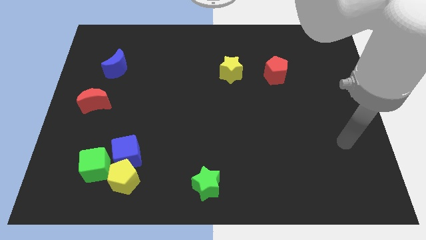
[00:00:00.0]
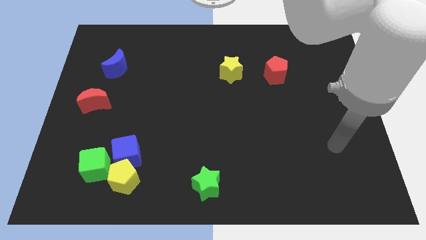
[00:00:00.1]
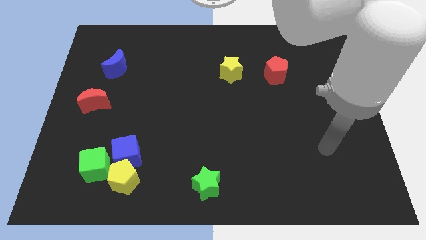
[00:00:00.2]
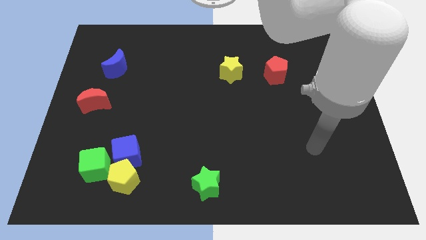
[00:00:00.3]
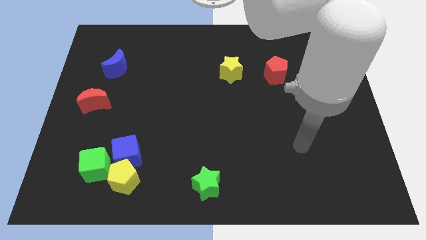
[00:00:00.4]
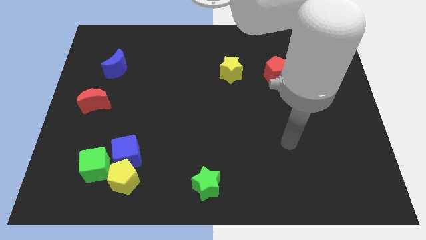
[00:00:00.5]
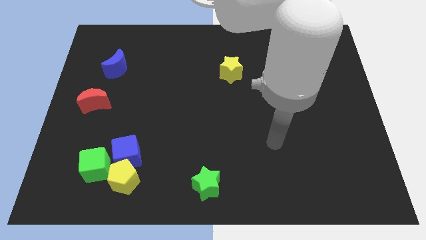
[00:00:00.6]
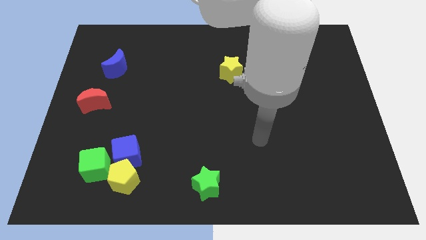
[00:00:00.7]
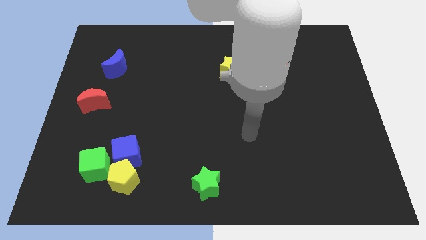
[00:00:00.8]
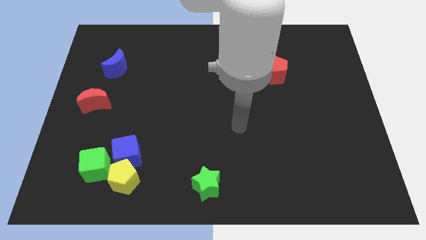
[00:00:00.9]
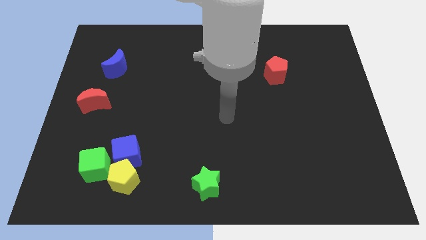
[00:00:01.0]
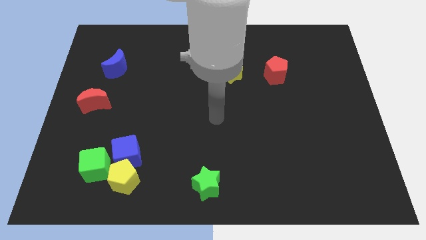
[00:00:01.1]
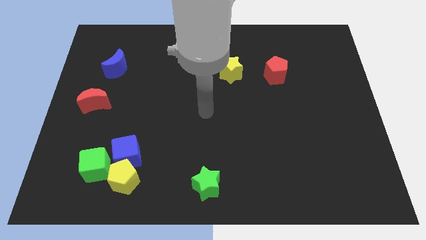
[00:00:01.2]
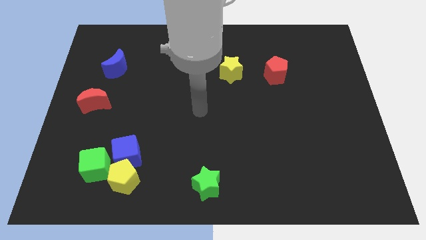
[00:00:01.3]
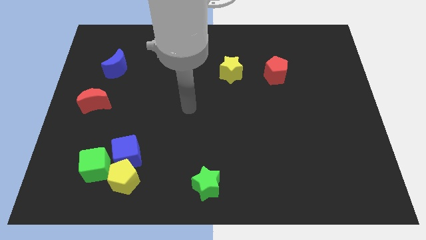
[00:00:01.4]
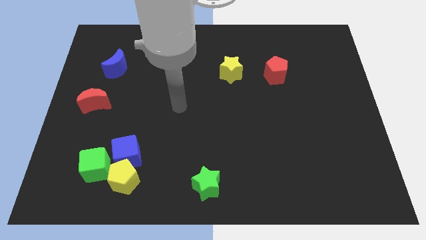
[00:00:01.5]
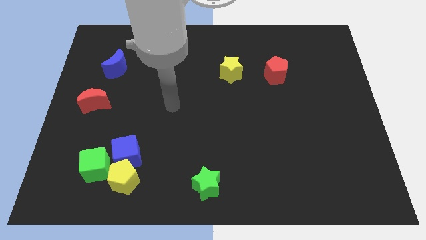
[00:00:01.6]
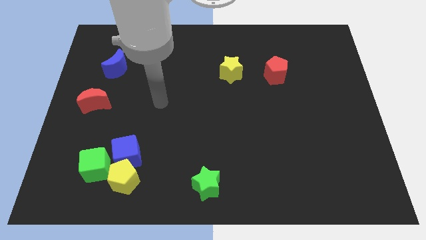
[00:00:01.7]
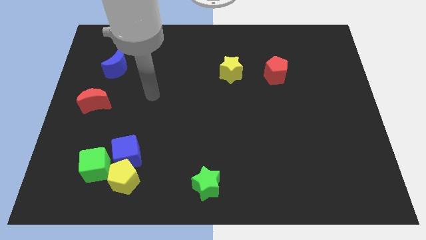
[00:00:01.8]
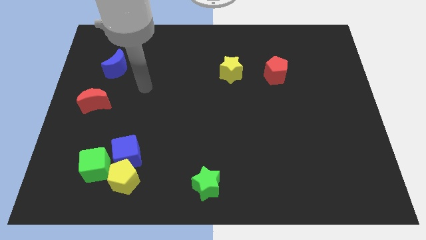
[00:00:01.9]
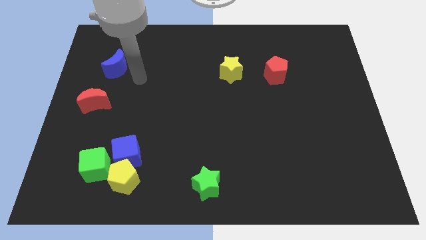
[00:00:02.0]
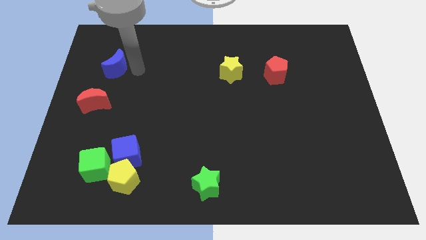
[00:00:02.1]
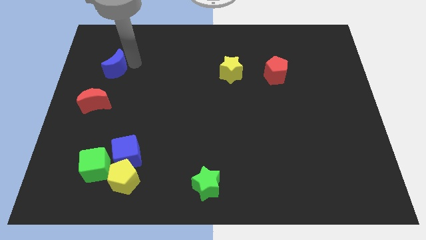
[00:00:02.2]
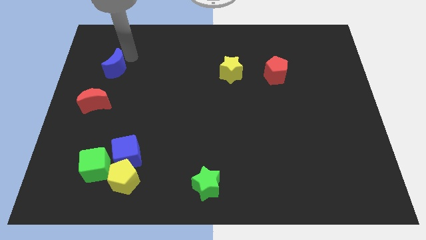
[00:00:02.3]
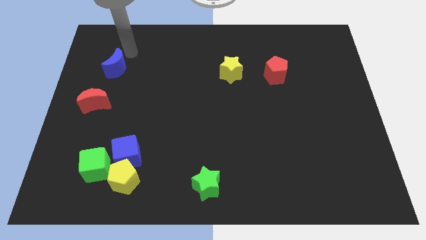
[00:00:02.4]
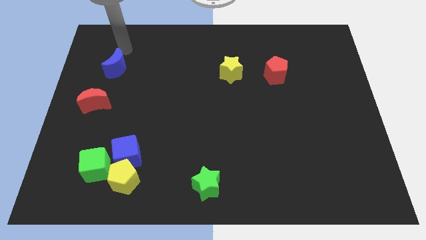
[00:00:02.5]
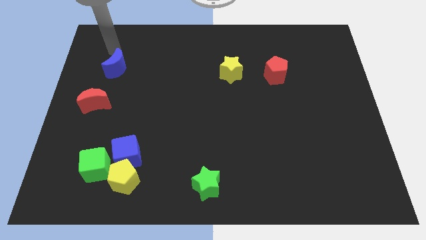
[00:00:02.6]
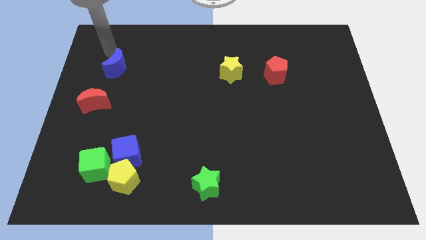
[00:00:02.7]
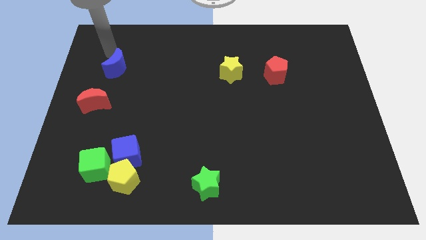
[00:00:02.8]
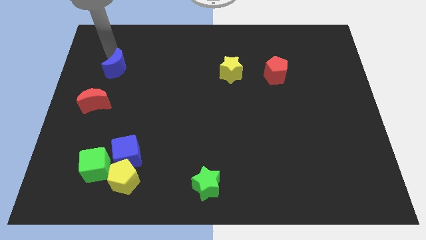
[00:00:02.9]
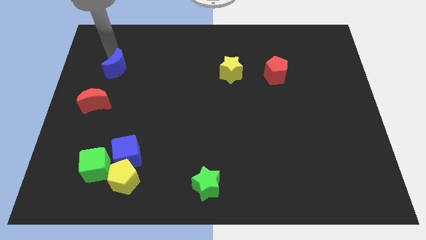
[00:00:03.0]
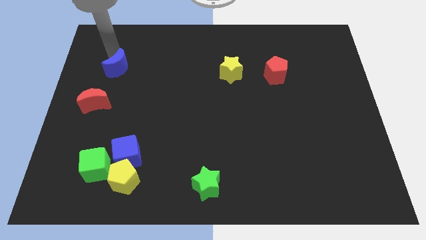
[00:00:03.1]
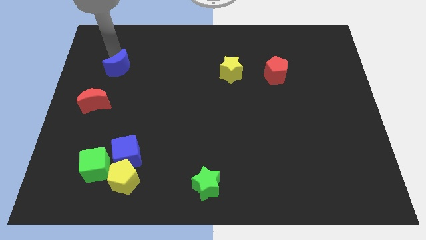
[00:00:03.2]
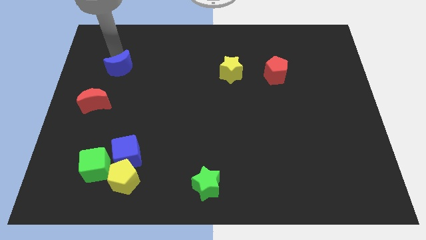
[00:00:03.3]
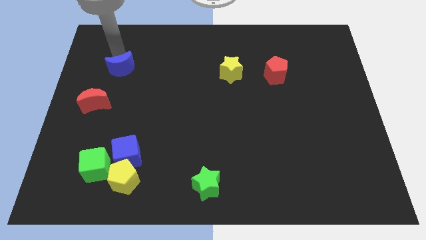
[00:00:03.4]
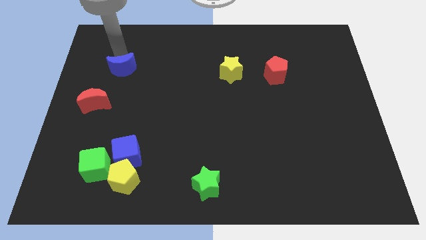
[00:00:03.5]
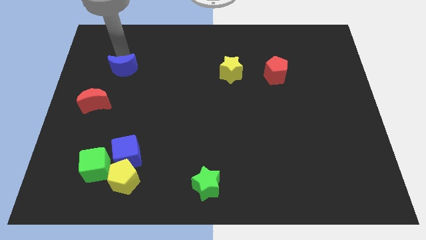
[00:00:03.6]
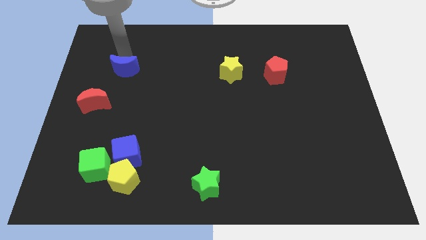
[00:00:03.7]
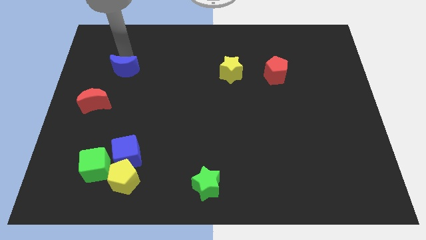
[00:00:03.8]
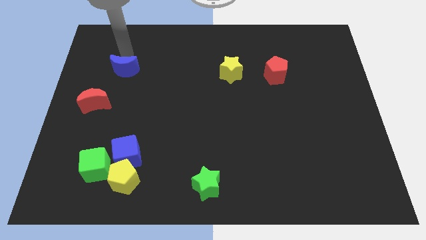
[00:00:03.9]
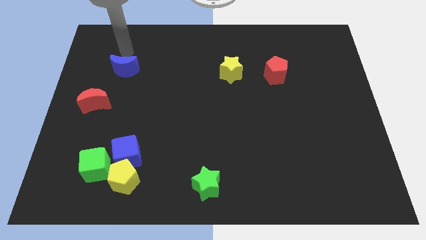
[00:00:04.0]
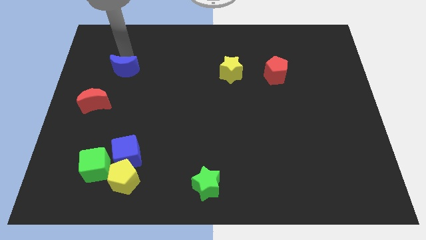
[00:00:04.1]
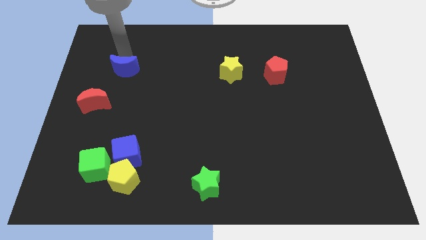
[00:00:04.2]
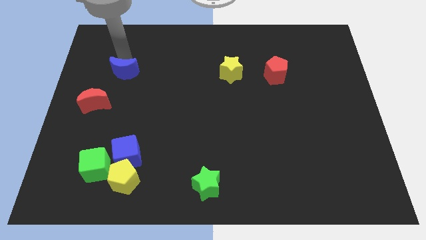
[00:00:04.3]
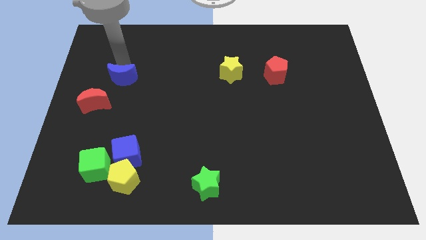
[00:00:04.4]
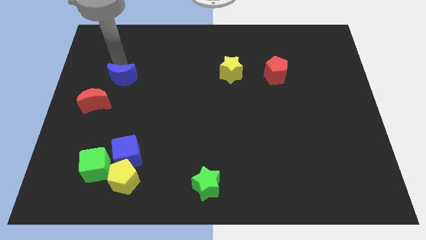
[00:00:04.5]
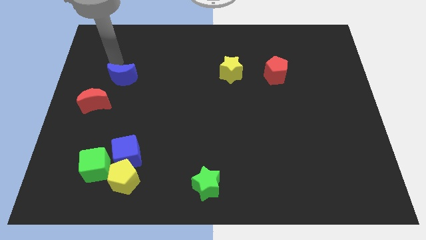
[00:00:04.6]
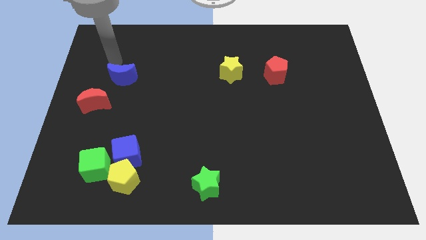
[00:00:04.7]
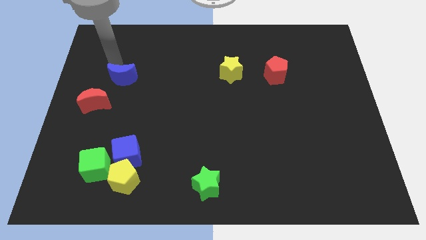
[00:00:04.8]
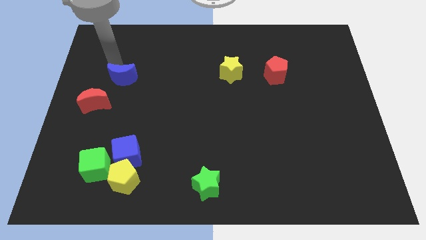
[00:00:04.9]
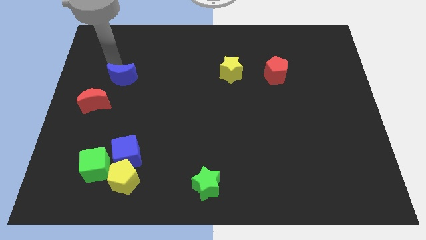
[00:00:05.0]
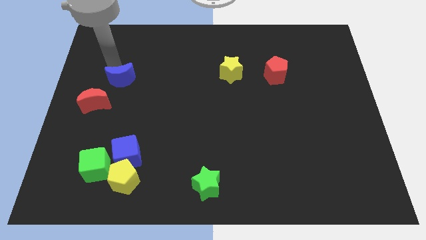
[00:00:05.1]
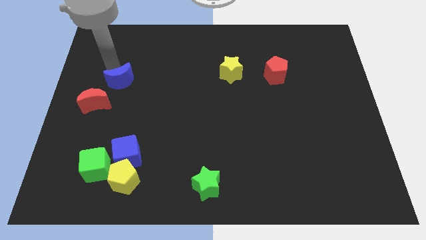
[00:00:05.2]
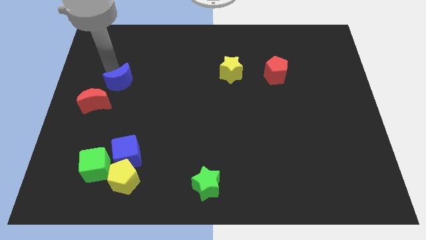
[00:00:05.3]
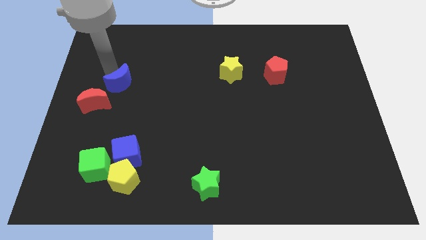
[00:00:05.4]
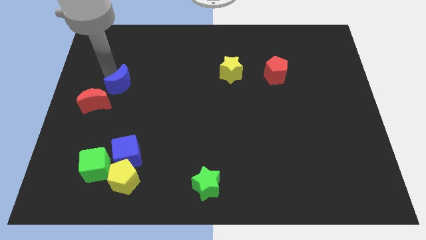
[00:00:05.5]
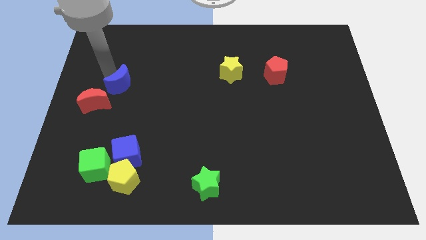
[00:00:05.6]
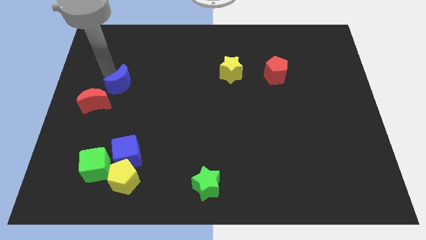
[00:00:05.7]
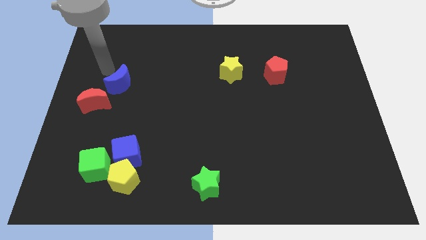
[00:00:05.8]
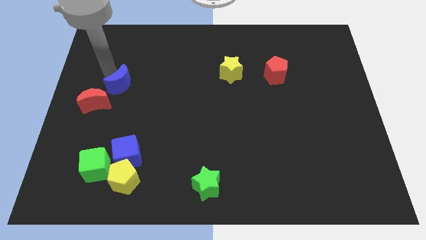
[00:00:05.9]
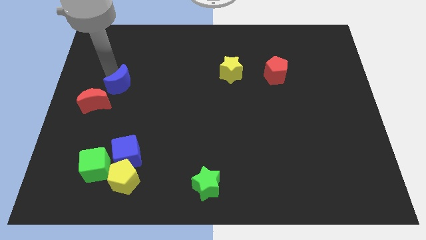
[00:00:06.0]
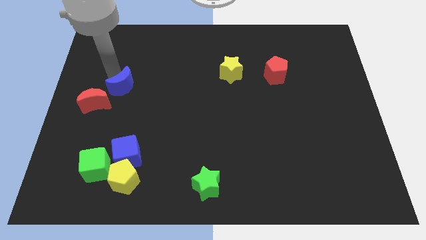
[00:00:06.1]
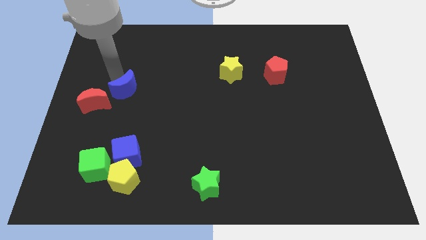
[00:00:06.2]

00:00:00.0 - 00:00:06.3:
push the blue moon downwards somewhat

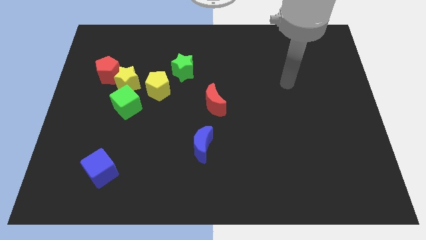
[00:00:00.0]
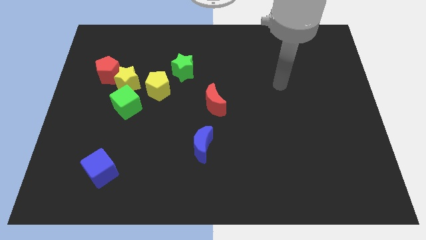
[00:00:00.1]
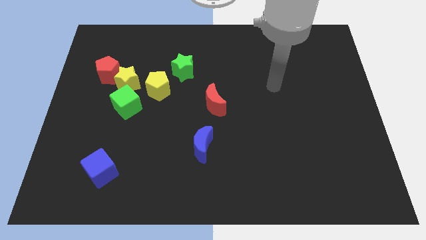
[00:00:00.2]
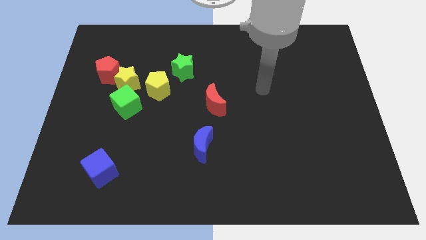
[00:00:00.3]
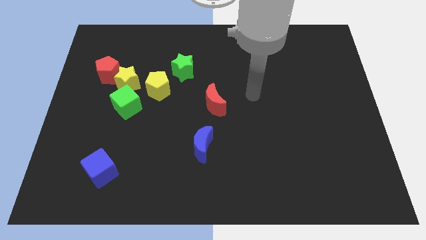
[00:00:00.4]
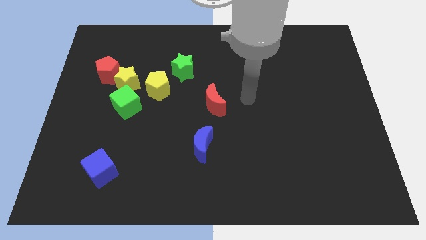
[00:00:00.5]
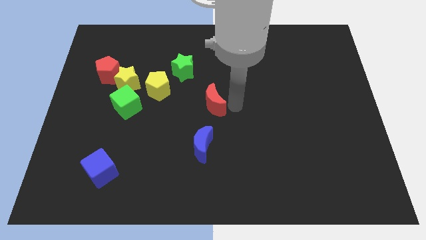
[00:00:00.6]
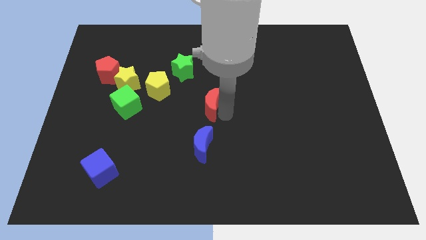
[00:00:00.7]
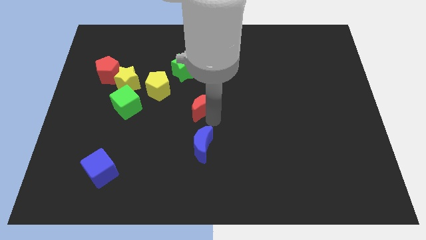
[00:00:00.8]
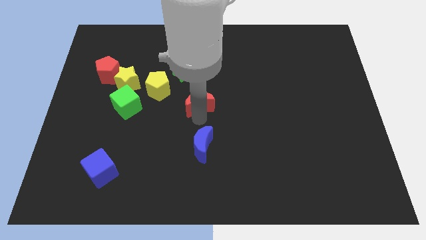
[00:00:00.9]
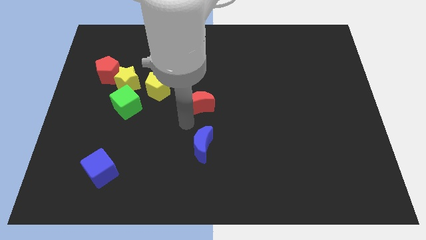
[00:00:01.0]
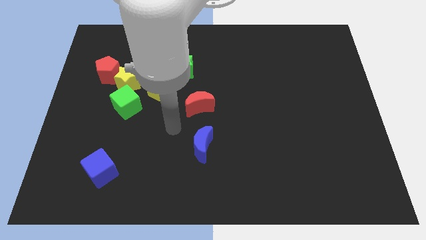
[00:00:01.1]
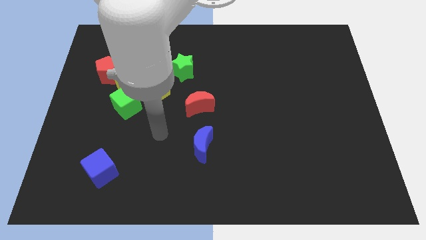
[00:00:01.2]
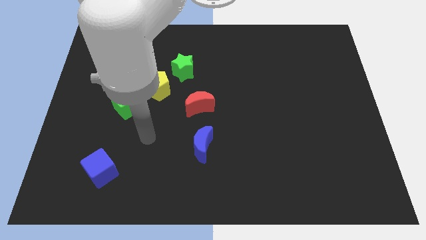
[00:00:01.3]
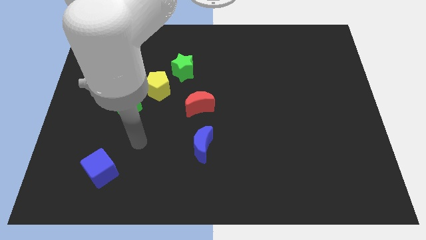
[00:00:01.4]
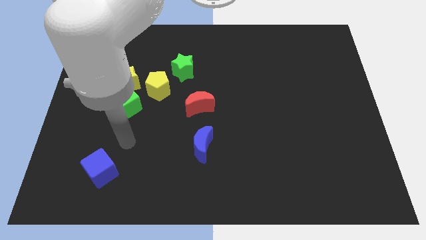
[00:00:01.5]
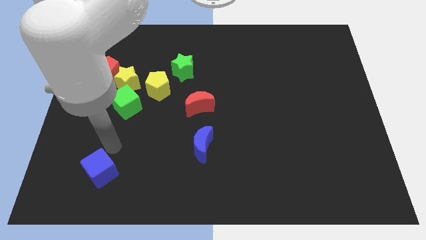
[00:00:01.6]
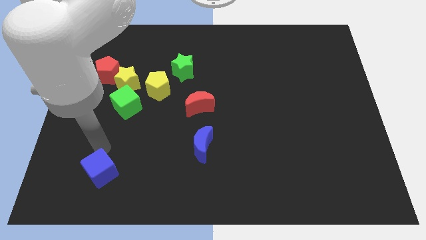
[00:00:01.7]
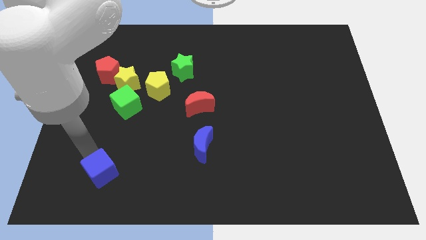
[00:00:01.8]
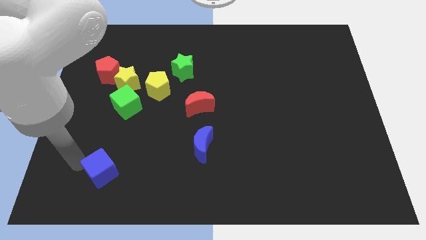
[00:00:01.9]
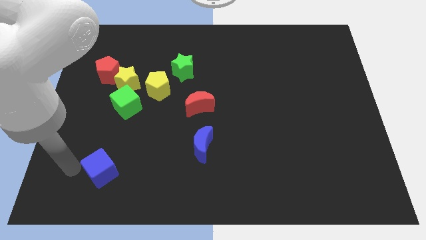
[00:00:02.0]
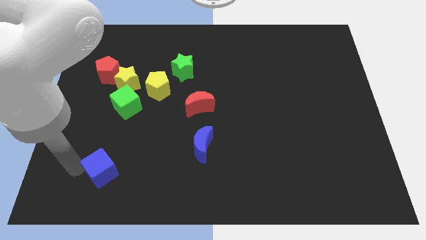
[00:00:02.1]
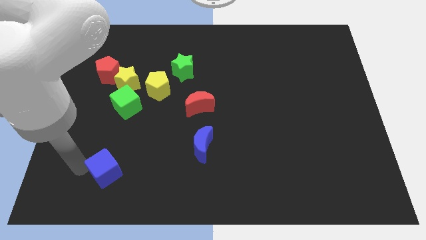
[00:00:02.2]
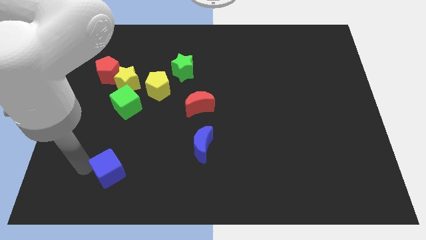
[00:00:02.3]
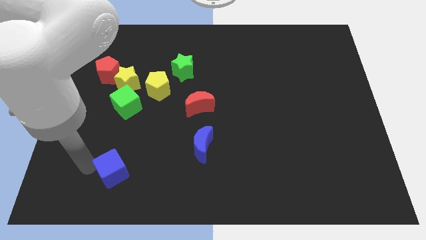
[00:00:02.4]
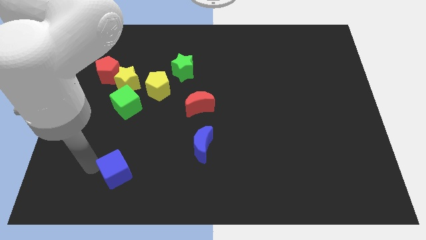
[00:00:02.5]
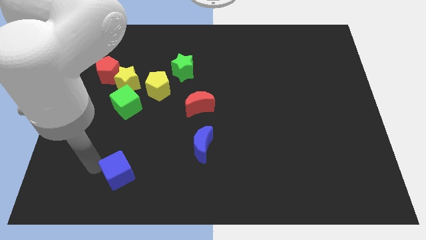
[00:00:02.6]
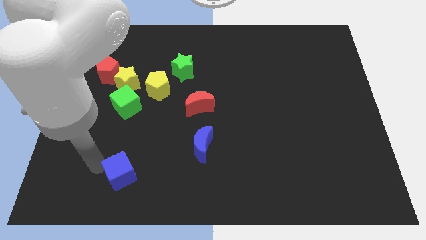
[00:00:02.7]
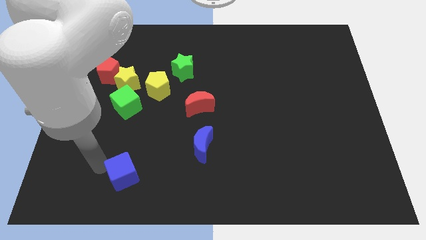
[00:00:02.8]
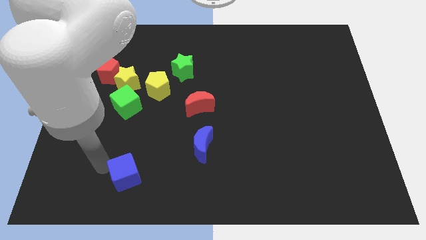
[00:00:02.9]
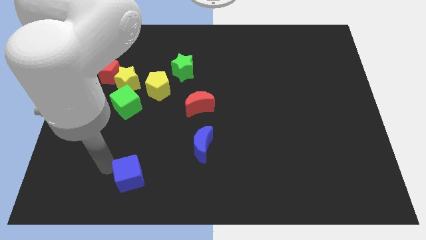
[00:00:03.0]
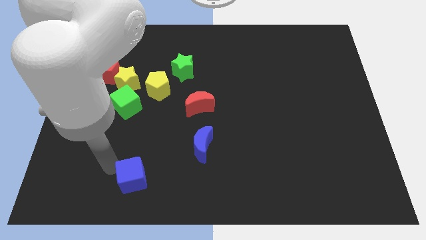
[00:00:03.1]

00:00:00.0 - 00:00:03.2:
move the blue cube a bit right
